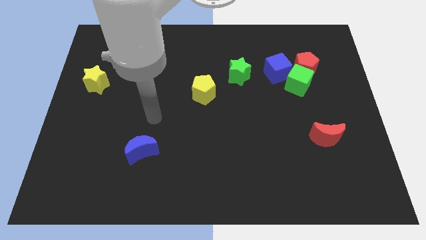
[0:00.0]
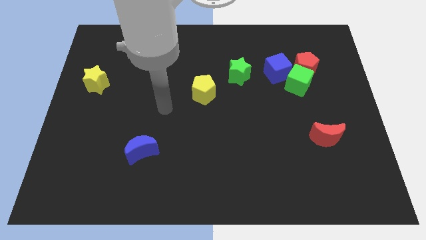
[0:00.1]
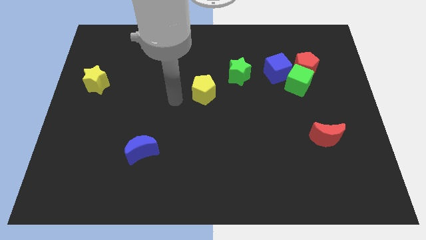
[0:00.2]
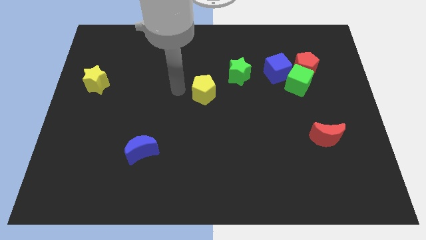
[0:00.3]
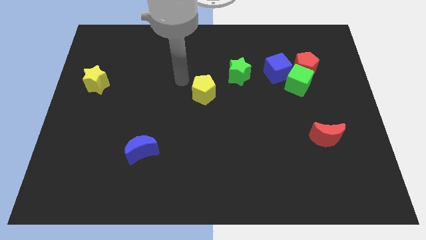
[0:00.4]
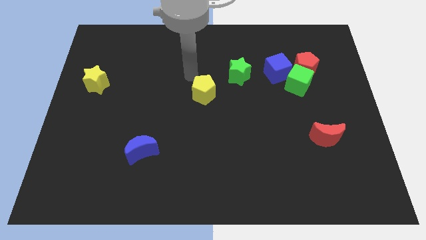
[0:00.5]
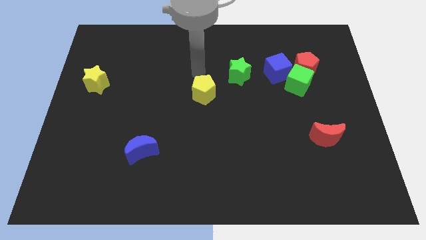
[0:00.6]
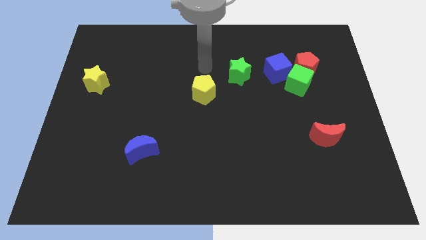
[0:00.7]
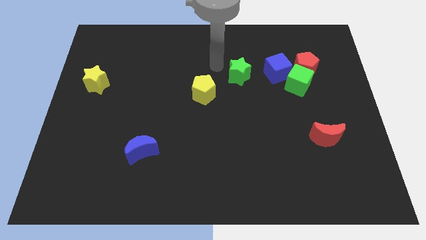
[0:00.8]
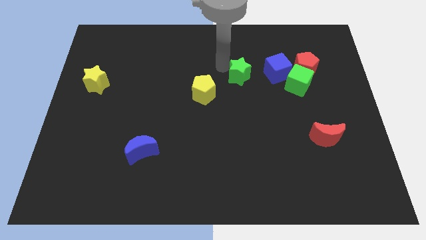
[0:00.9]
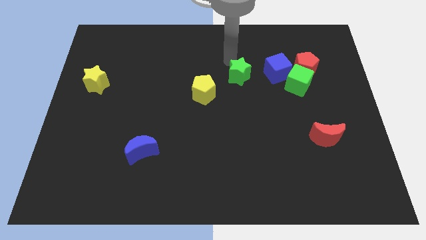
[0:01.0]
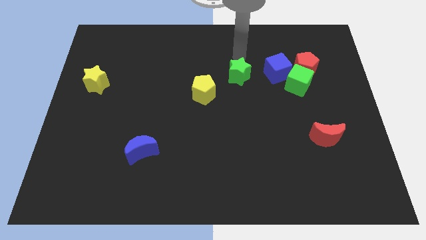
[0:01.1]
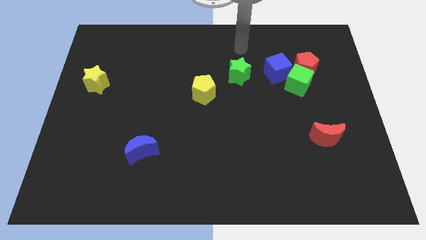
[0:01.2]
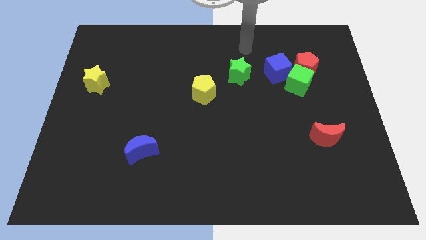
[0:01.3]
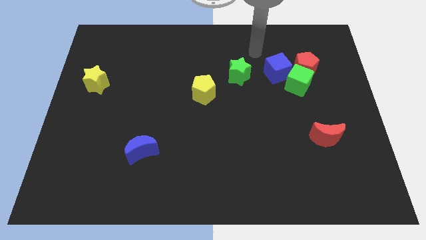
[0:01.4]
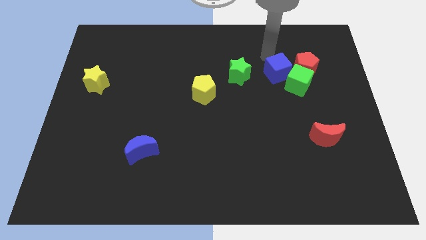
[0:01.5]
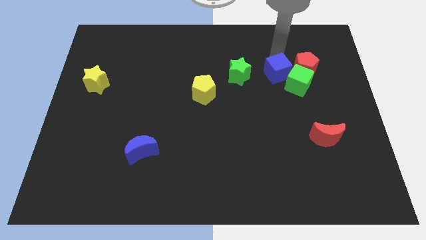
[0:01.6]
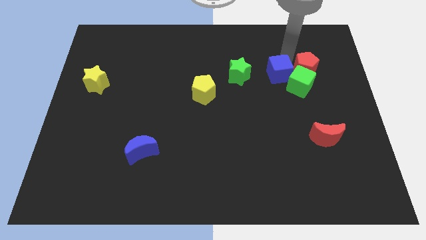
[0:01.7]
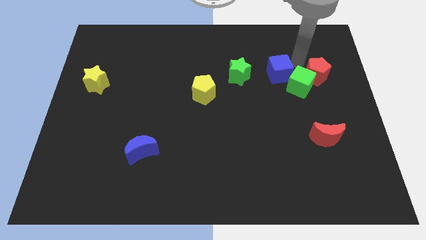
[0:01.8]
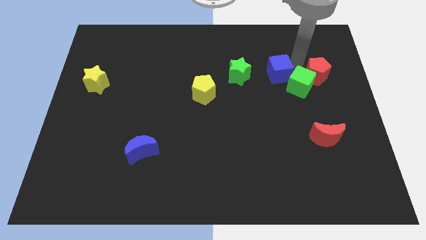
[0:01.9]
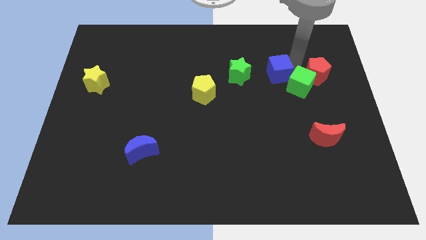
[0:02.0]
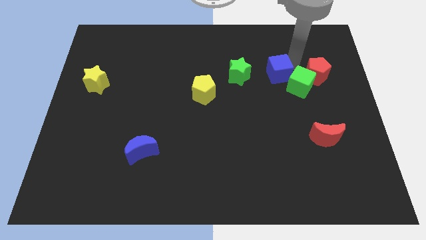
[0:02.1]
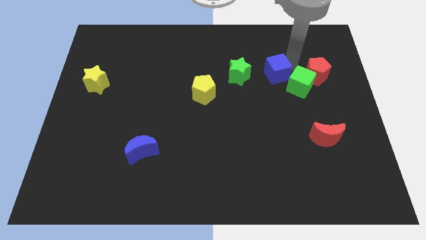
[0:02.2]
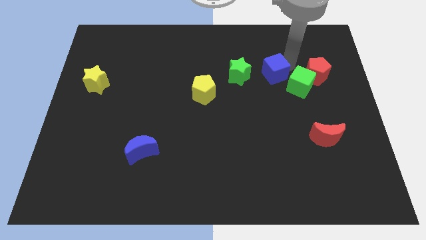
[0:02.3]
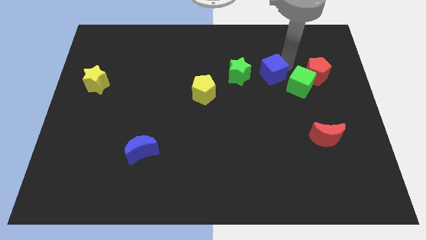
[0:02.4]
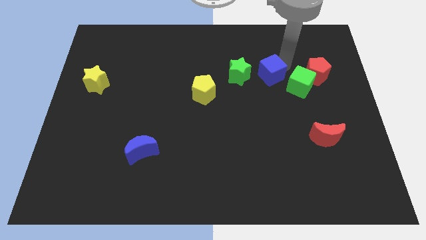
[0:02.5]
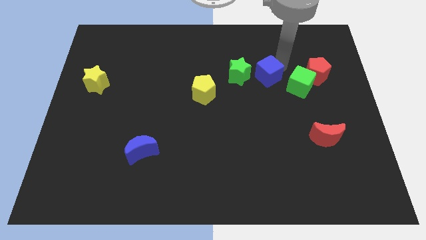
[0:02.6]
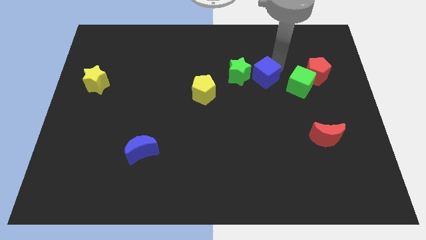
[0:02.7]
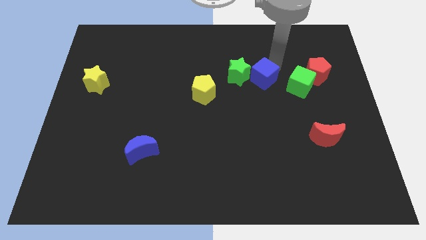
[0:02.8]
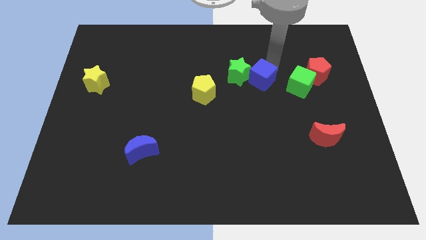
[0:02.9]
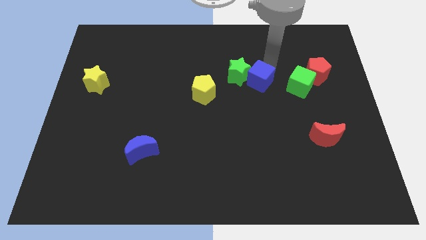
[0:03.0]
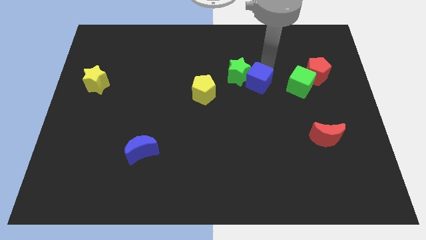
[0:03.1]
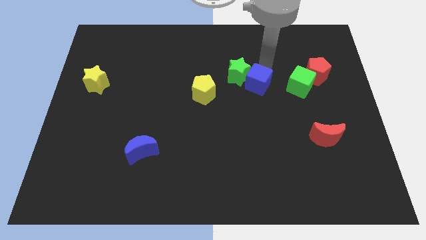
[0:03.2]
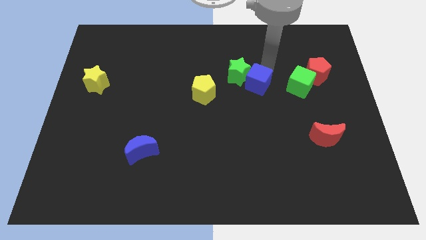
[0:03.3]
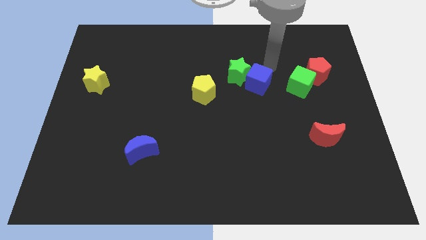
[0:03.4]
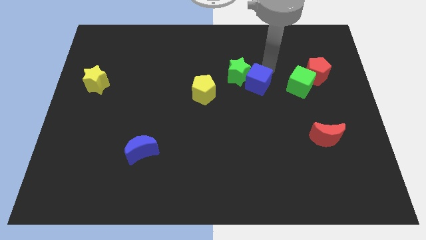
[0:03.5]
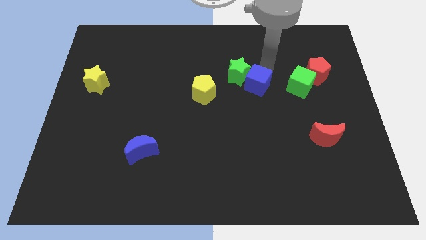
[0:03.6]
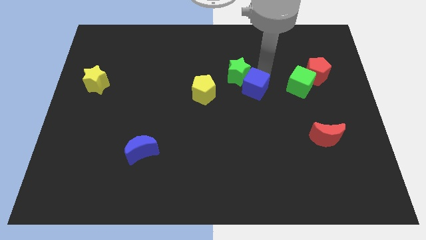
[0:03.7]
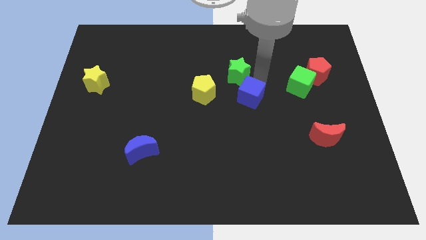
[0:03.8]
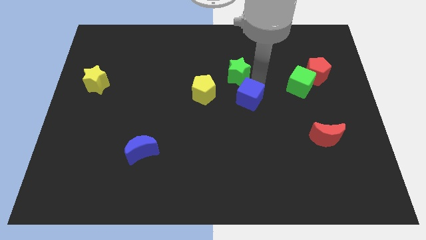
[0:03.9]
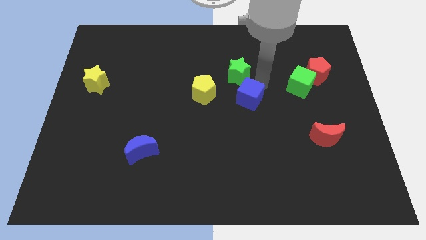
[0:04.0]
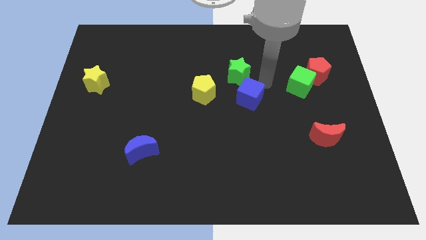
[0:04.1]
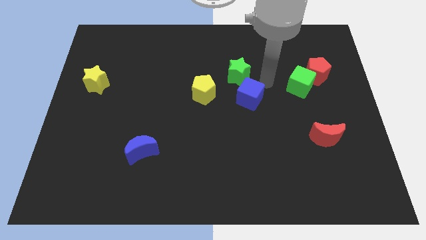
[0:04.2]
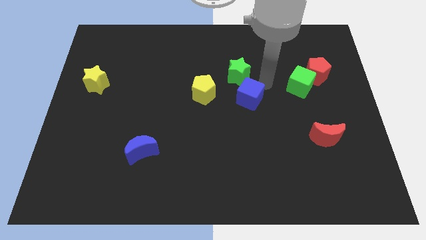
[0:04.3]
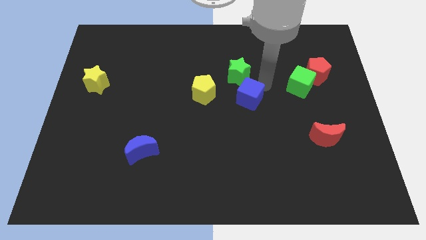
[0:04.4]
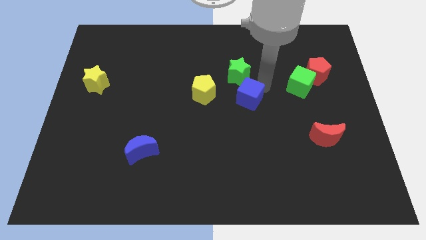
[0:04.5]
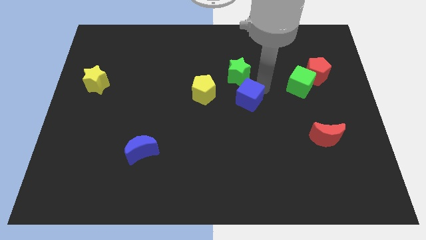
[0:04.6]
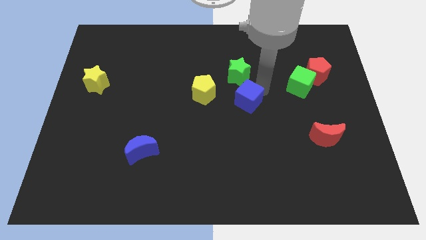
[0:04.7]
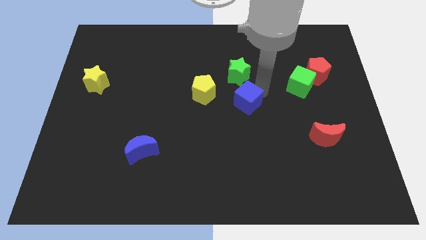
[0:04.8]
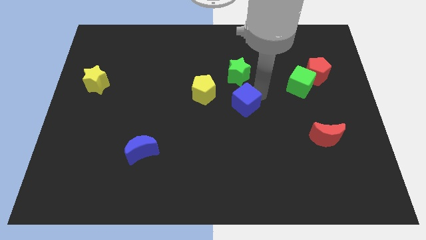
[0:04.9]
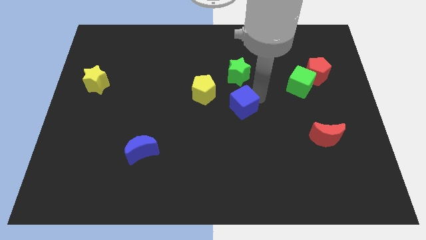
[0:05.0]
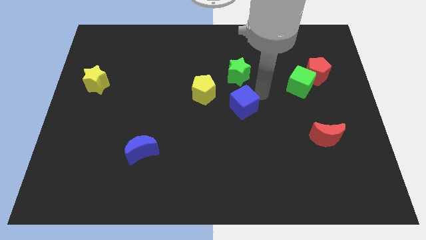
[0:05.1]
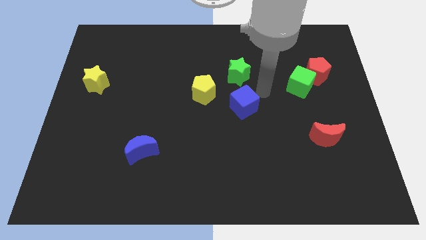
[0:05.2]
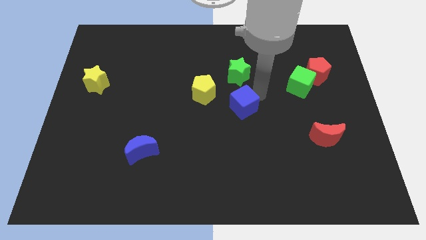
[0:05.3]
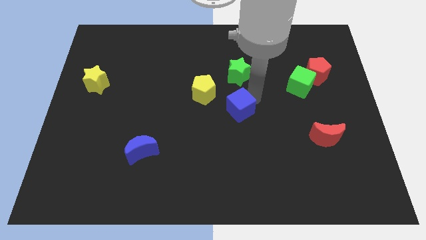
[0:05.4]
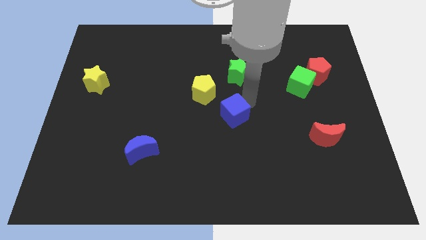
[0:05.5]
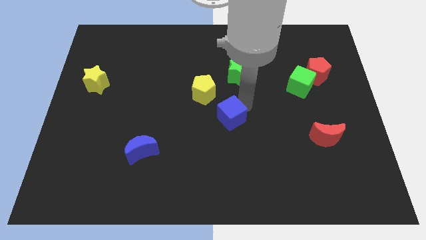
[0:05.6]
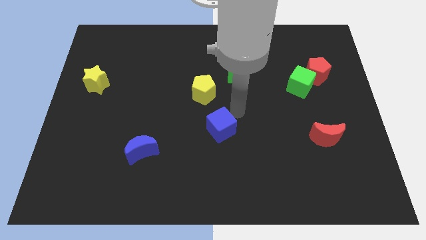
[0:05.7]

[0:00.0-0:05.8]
slide the blue cube diagonally down and to the left

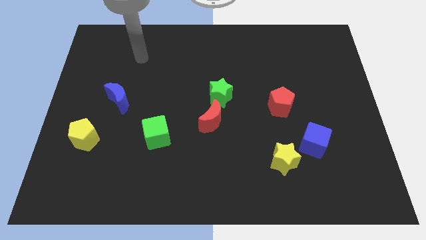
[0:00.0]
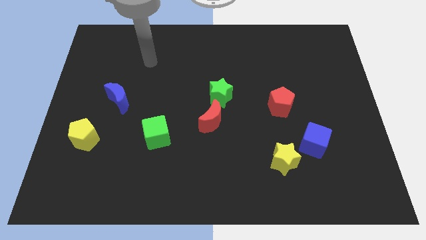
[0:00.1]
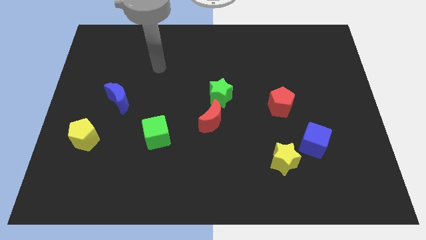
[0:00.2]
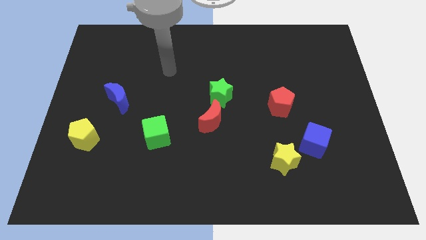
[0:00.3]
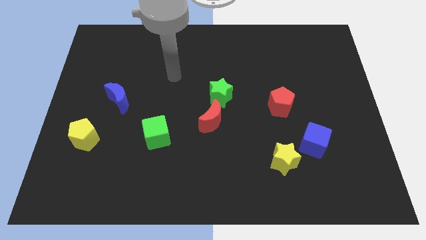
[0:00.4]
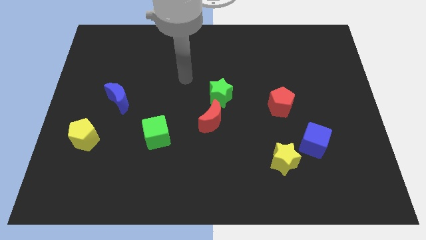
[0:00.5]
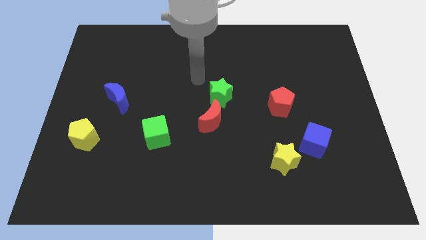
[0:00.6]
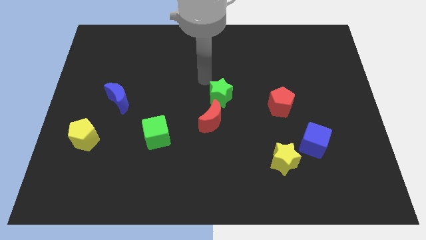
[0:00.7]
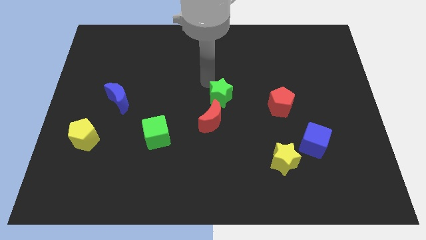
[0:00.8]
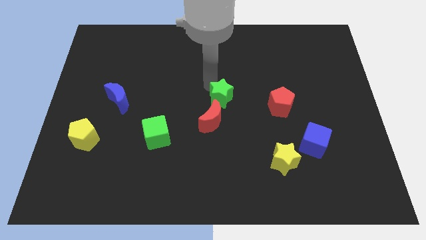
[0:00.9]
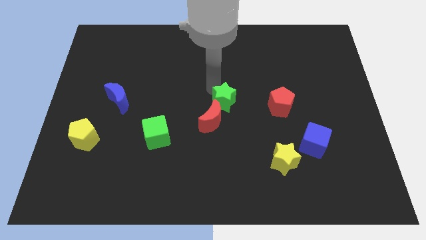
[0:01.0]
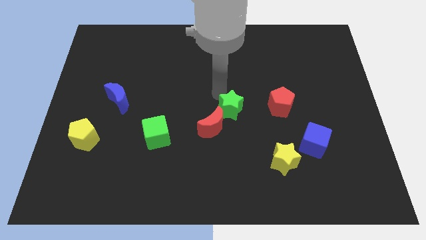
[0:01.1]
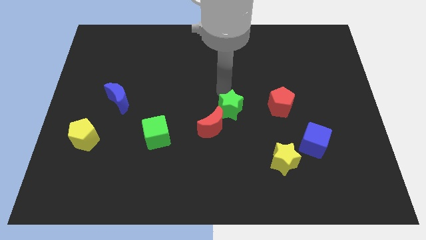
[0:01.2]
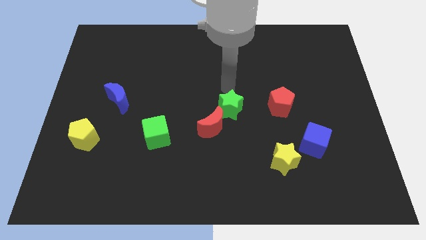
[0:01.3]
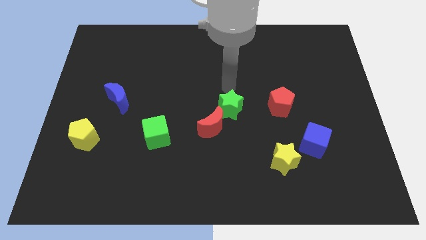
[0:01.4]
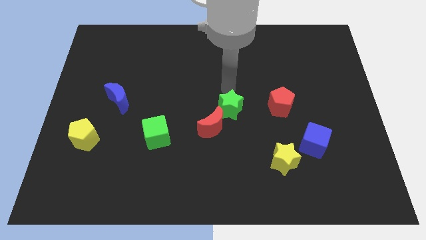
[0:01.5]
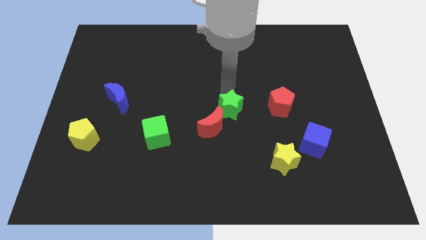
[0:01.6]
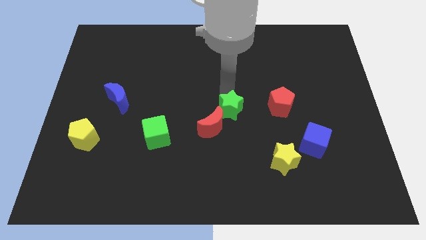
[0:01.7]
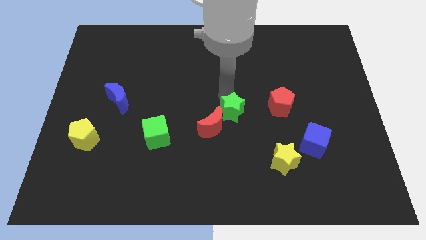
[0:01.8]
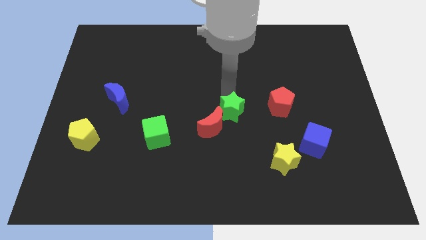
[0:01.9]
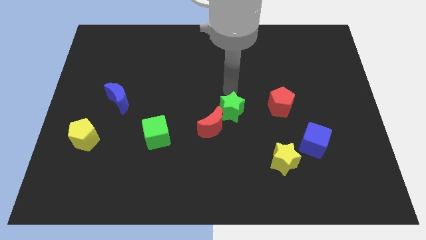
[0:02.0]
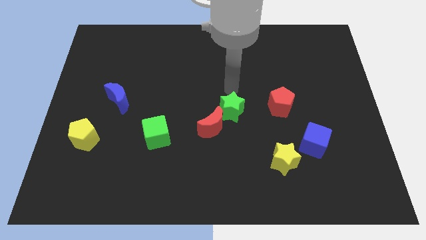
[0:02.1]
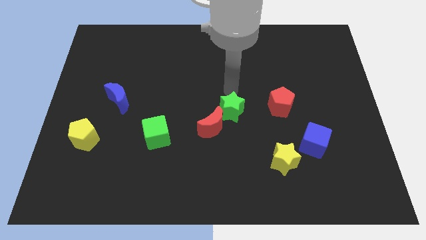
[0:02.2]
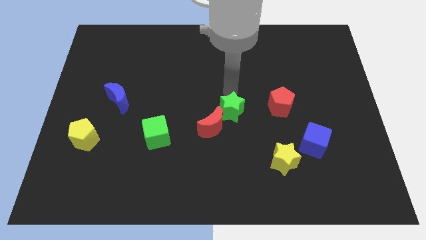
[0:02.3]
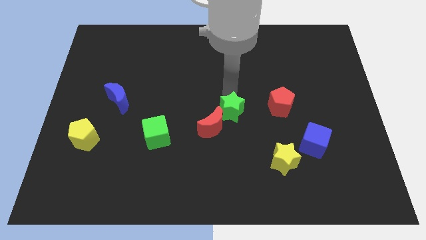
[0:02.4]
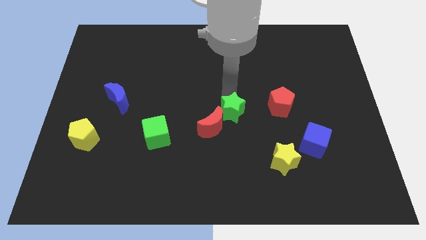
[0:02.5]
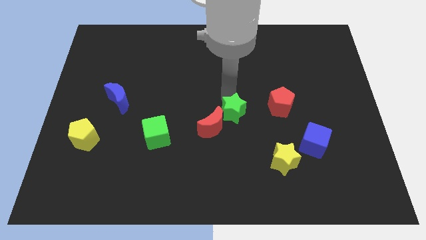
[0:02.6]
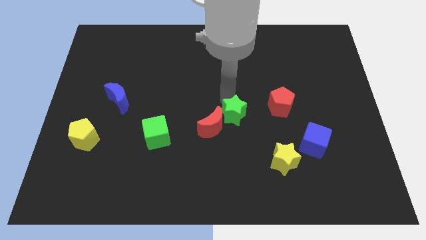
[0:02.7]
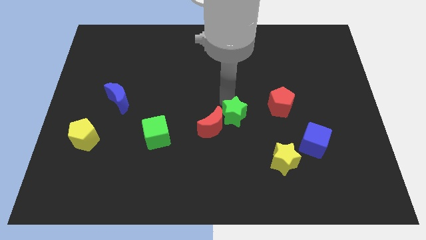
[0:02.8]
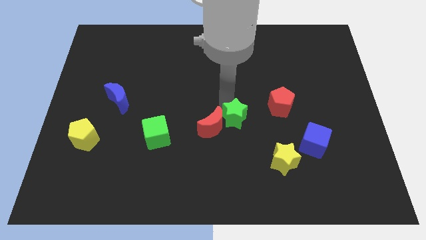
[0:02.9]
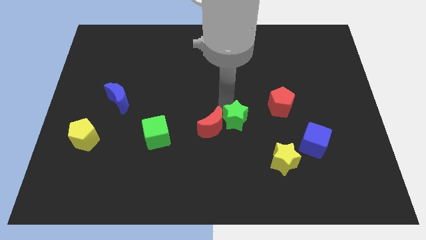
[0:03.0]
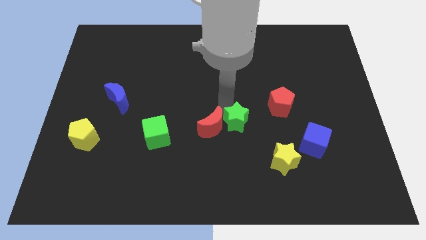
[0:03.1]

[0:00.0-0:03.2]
slightly slide the green star downwards
